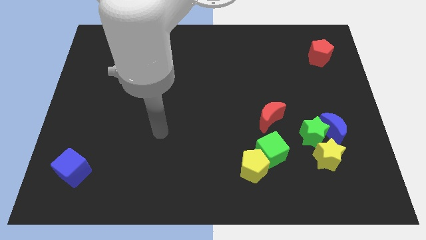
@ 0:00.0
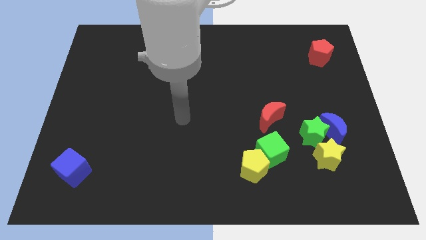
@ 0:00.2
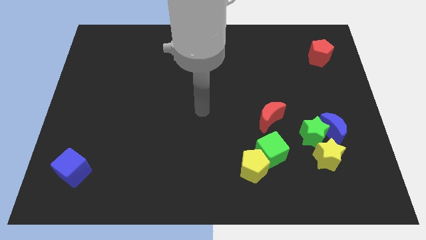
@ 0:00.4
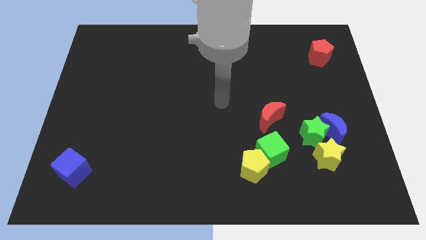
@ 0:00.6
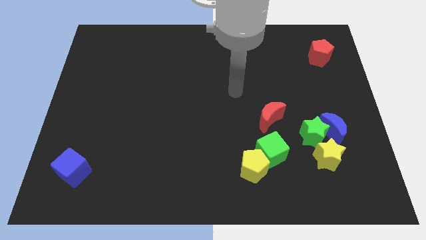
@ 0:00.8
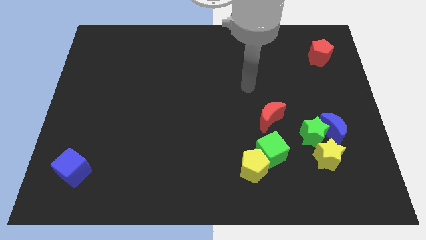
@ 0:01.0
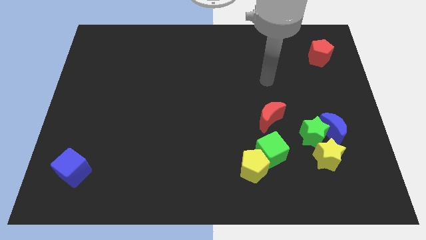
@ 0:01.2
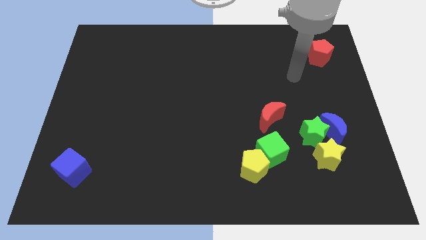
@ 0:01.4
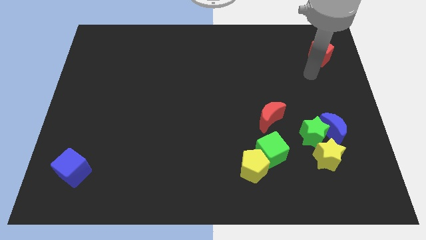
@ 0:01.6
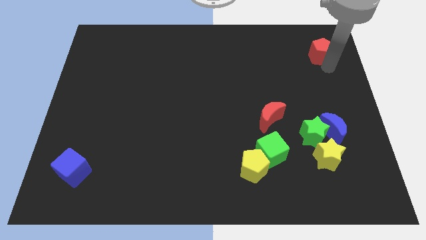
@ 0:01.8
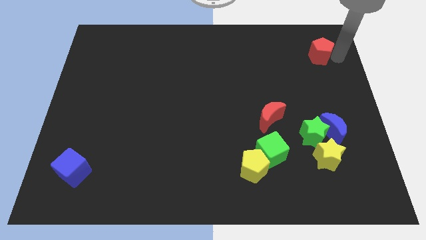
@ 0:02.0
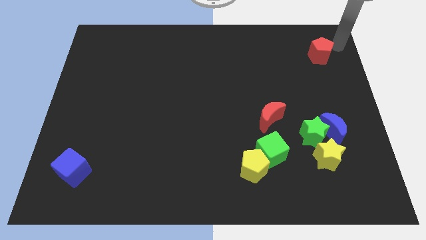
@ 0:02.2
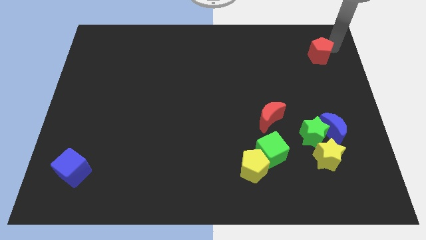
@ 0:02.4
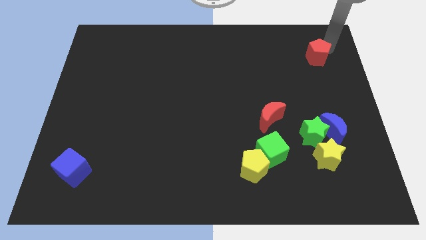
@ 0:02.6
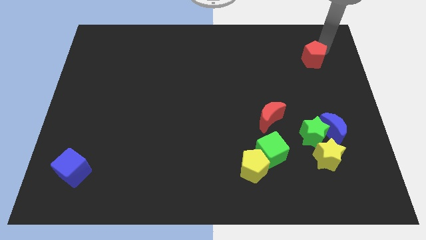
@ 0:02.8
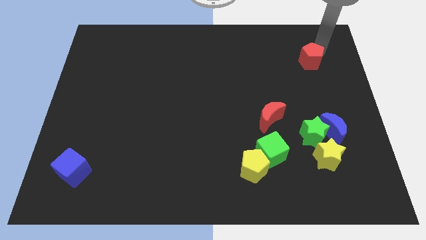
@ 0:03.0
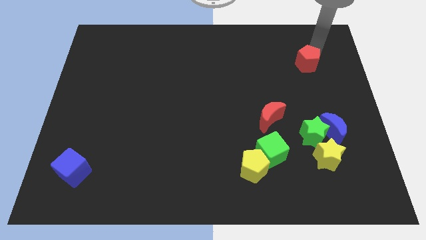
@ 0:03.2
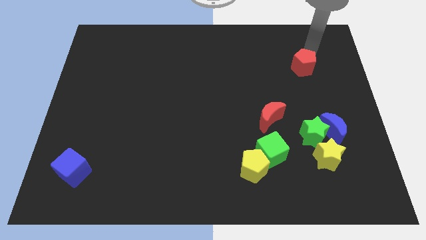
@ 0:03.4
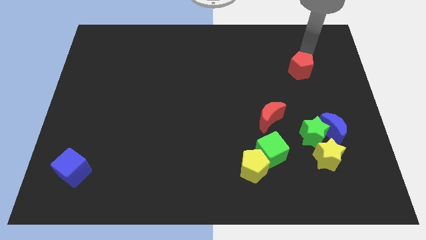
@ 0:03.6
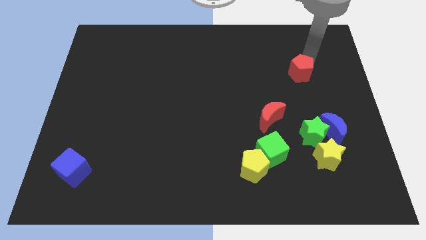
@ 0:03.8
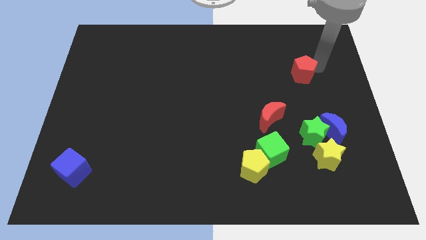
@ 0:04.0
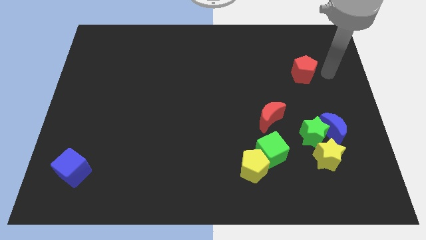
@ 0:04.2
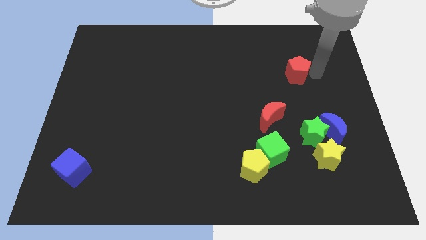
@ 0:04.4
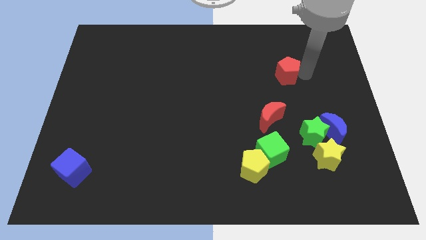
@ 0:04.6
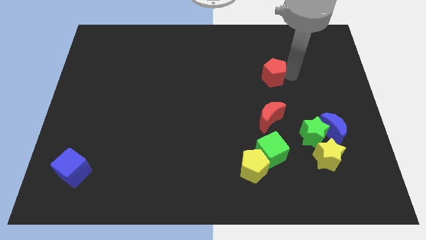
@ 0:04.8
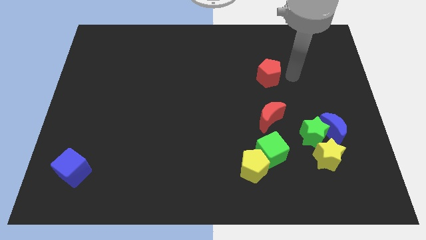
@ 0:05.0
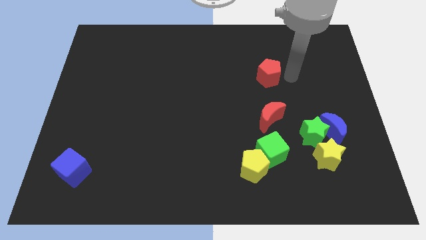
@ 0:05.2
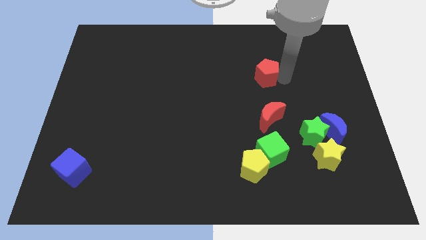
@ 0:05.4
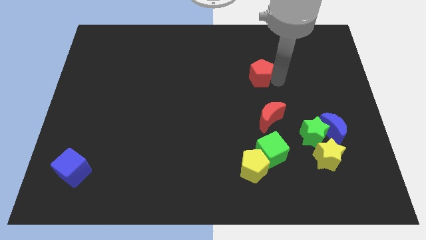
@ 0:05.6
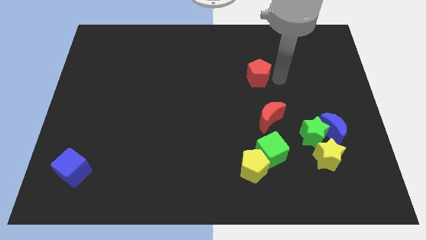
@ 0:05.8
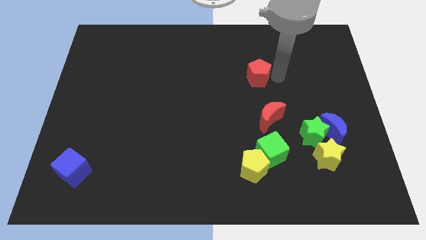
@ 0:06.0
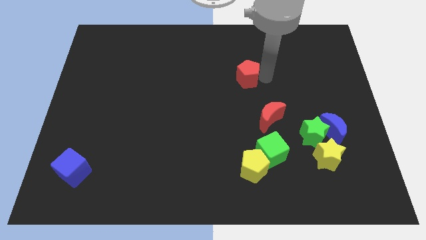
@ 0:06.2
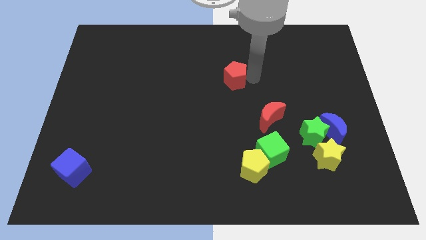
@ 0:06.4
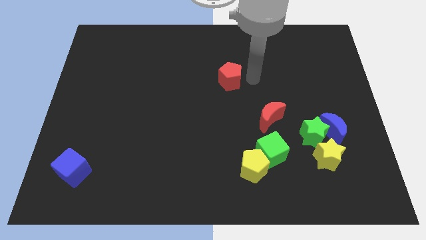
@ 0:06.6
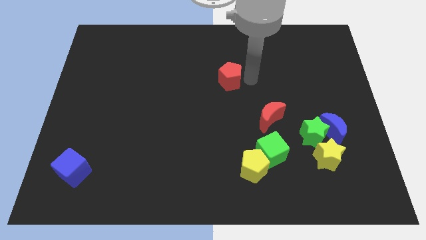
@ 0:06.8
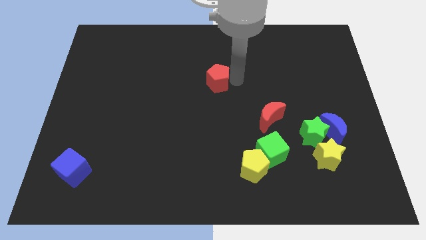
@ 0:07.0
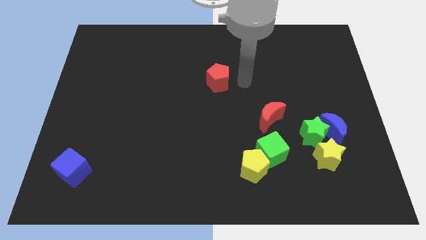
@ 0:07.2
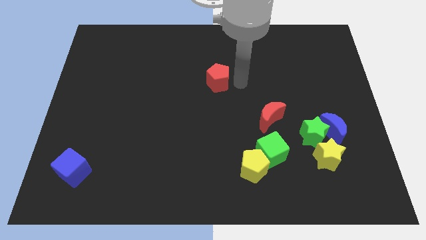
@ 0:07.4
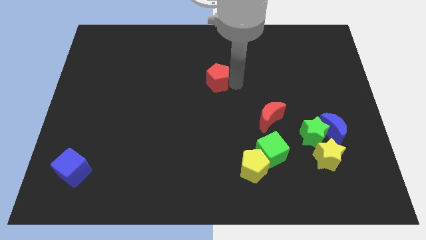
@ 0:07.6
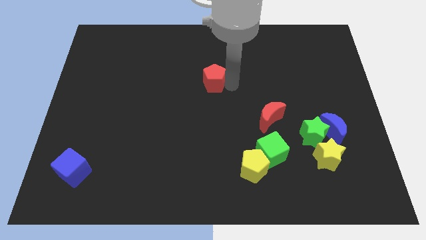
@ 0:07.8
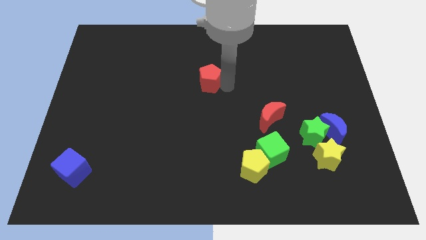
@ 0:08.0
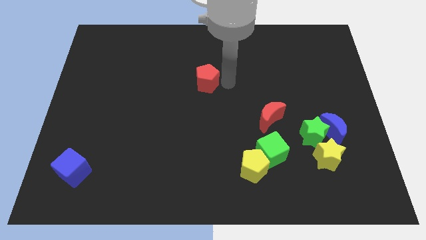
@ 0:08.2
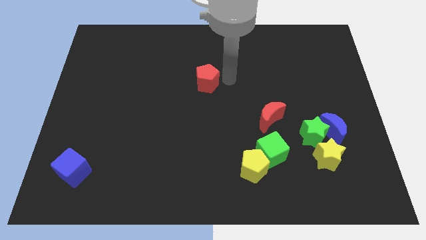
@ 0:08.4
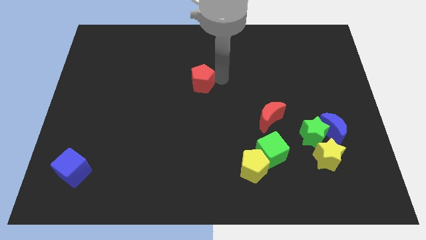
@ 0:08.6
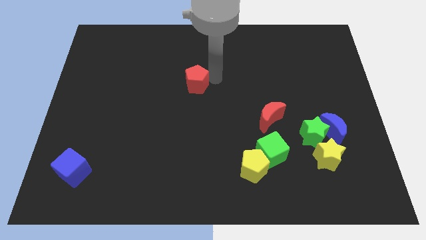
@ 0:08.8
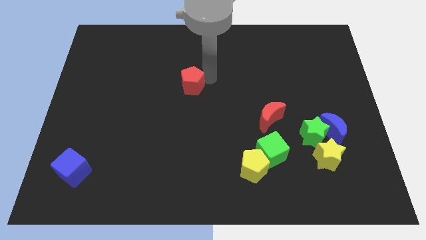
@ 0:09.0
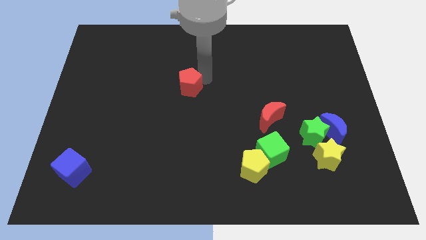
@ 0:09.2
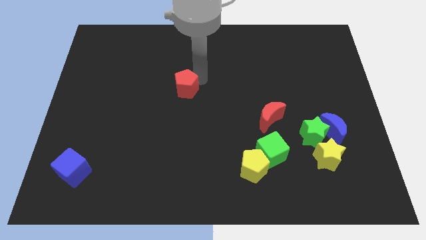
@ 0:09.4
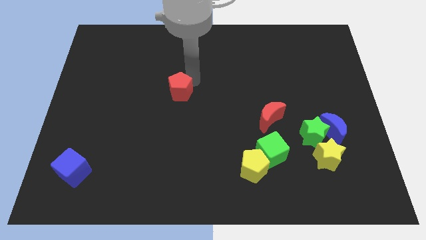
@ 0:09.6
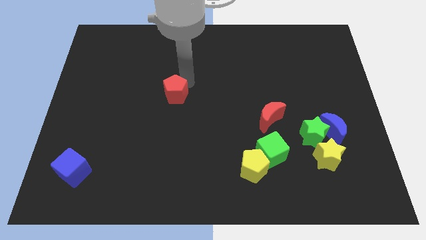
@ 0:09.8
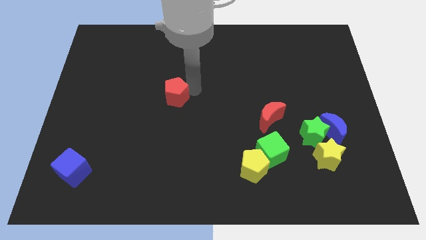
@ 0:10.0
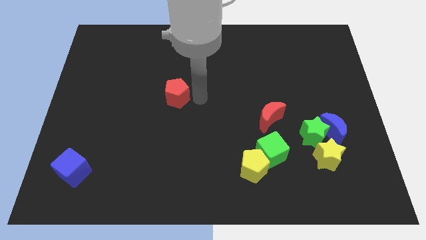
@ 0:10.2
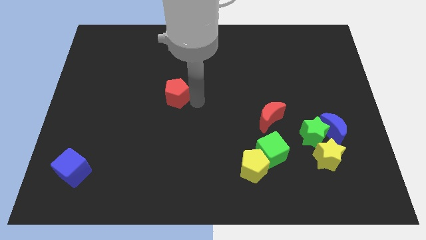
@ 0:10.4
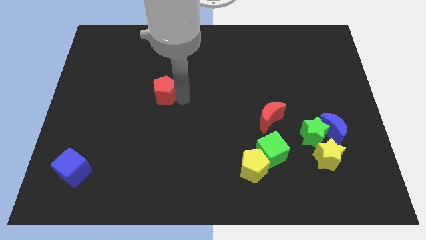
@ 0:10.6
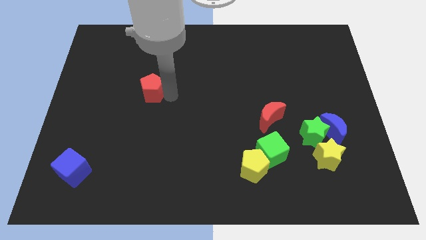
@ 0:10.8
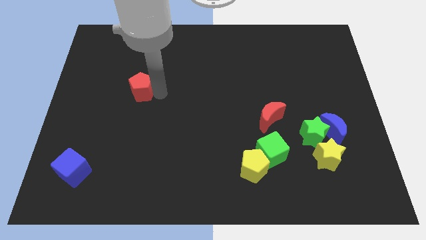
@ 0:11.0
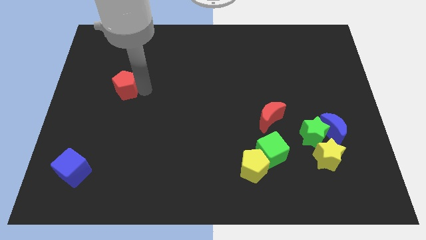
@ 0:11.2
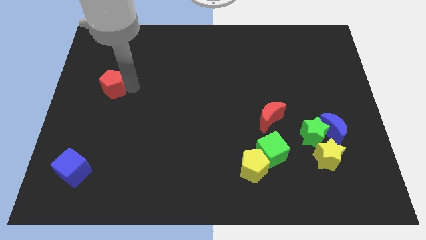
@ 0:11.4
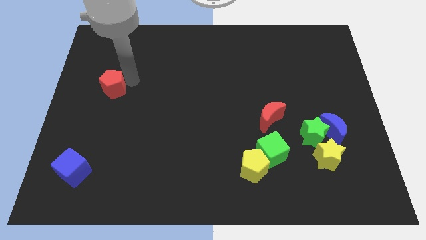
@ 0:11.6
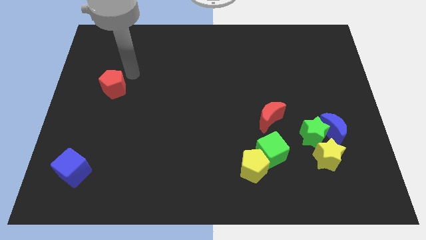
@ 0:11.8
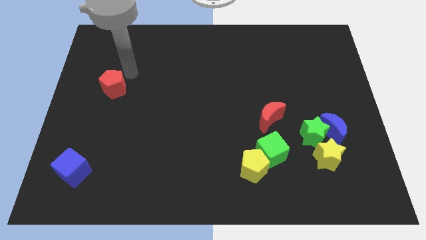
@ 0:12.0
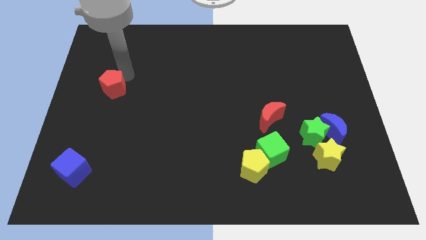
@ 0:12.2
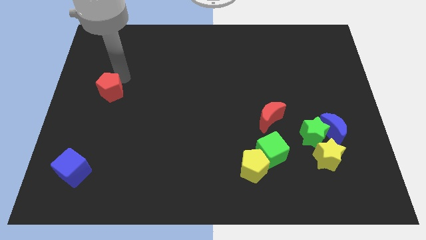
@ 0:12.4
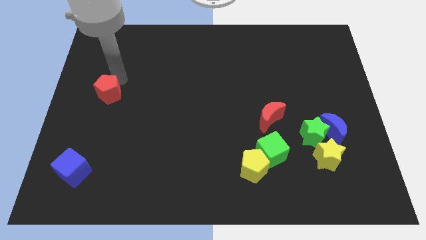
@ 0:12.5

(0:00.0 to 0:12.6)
slide the red pentagon to the left side of the board

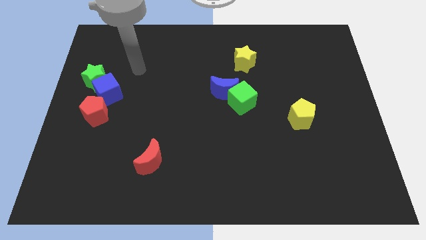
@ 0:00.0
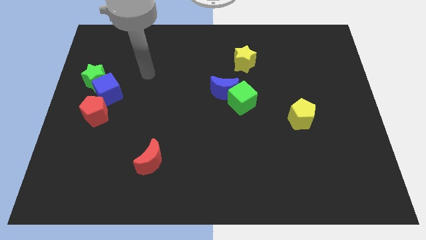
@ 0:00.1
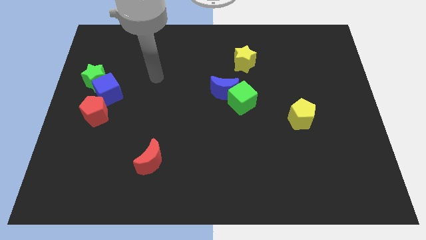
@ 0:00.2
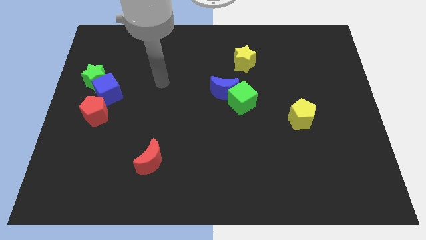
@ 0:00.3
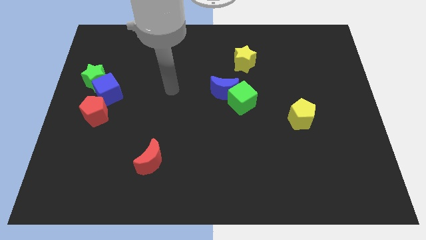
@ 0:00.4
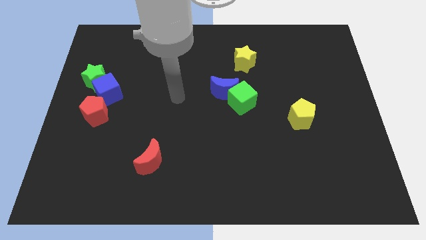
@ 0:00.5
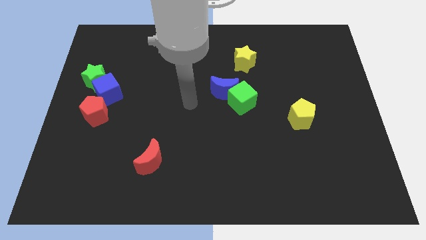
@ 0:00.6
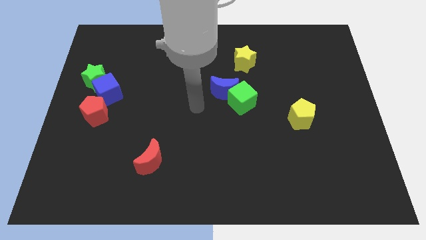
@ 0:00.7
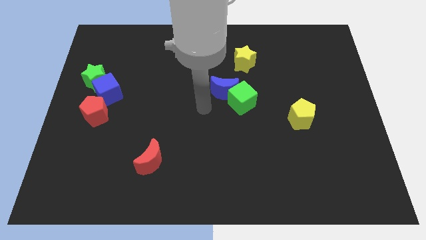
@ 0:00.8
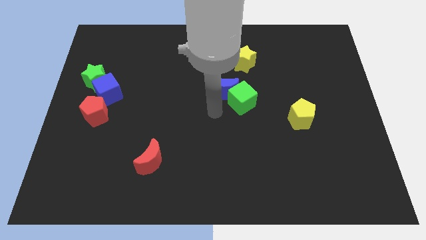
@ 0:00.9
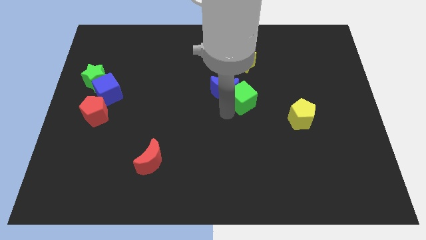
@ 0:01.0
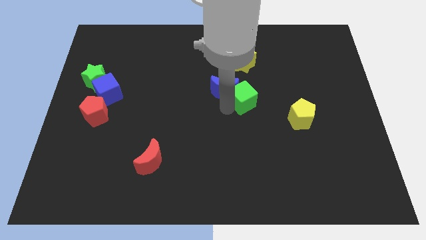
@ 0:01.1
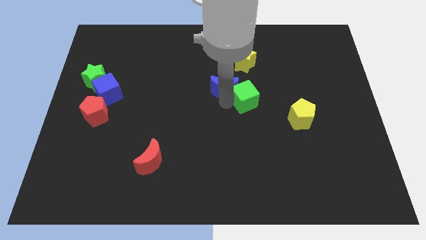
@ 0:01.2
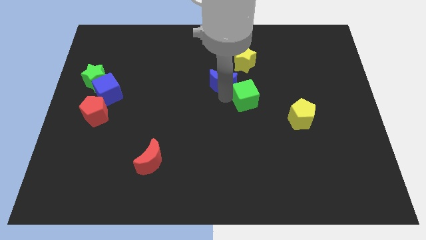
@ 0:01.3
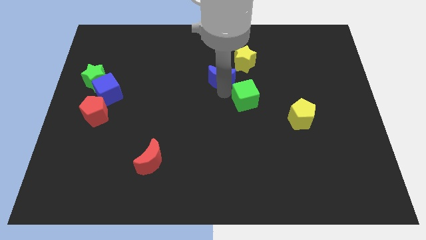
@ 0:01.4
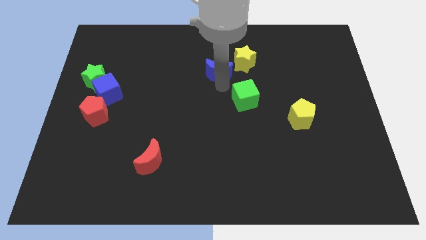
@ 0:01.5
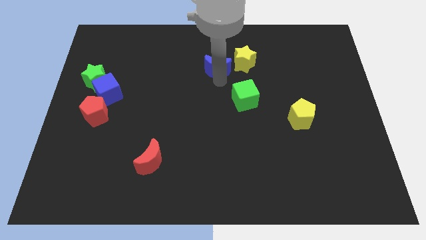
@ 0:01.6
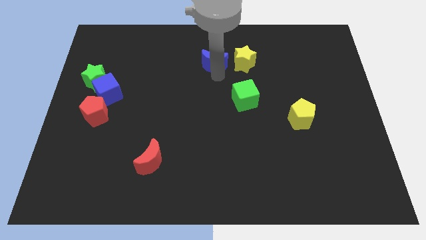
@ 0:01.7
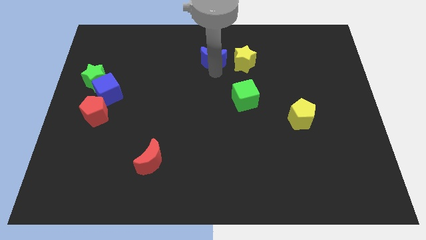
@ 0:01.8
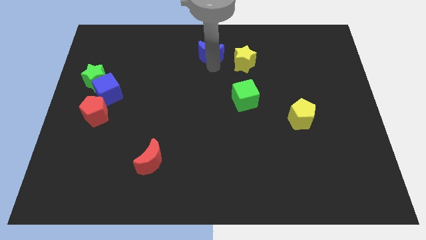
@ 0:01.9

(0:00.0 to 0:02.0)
push the blue moon to the top side
